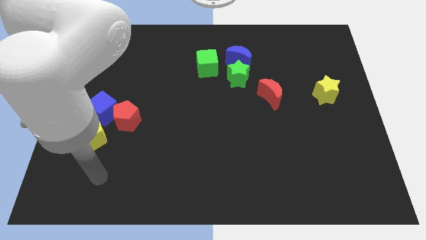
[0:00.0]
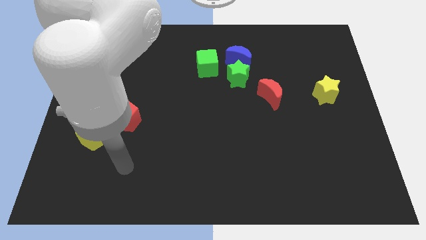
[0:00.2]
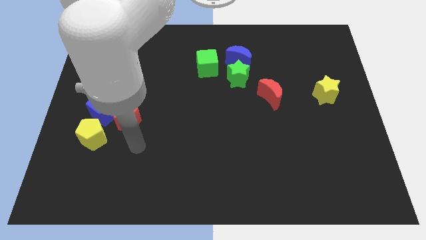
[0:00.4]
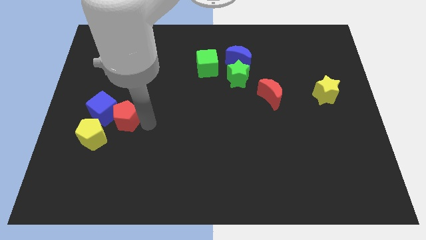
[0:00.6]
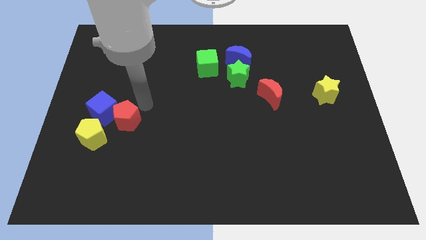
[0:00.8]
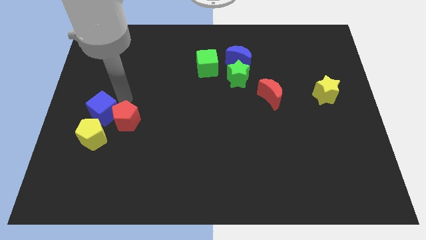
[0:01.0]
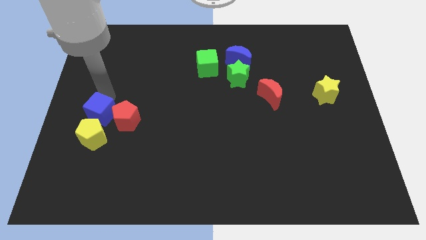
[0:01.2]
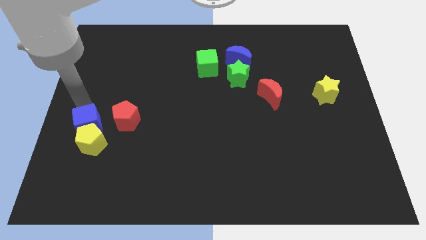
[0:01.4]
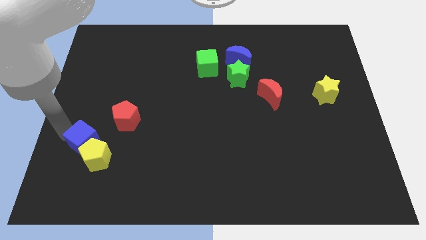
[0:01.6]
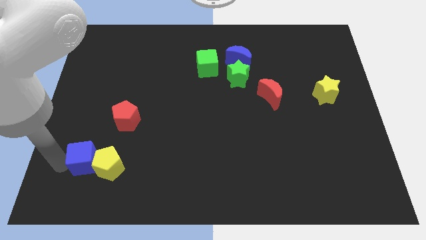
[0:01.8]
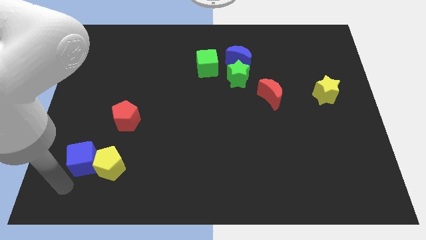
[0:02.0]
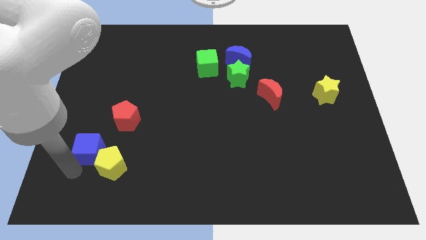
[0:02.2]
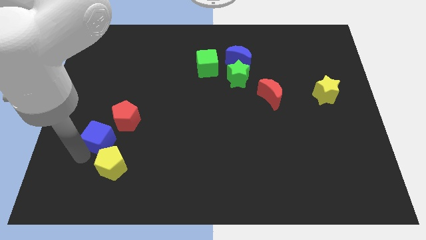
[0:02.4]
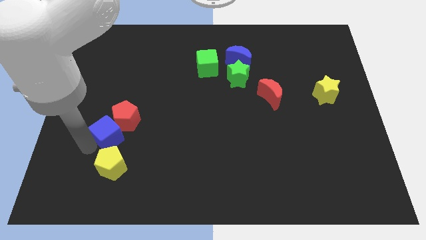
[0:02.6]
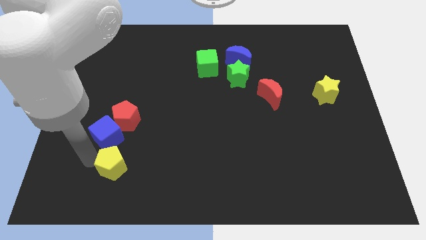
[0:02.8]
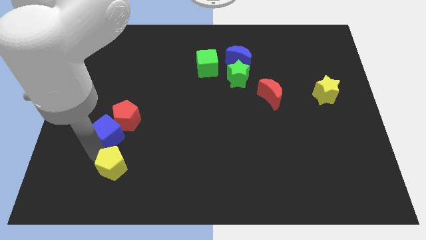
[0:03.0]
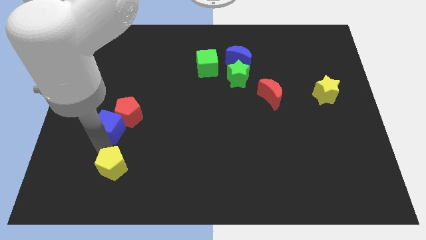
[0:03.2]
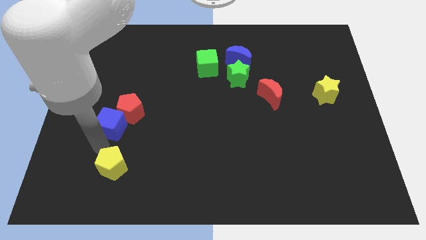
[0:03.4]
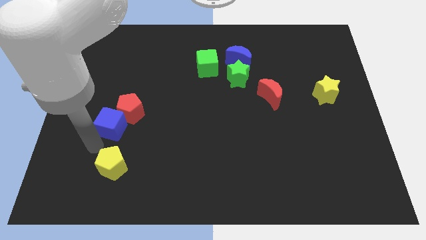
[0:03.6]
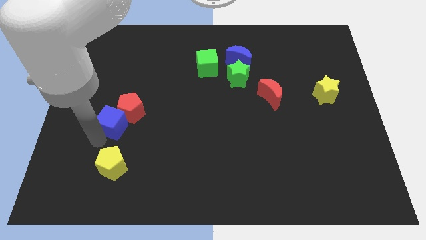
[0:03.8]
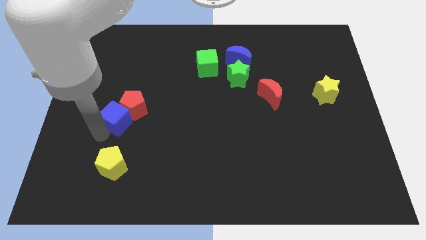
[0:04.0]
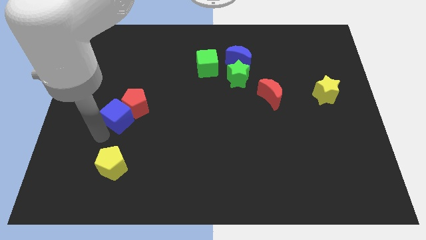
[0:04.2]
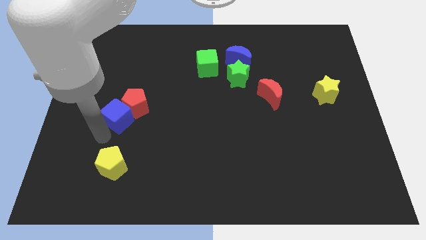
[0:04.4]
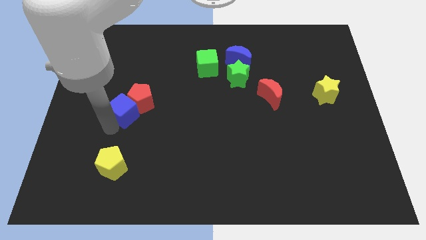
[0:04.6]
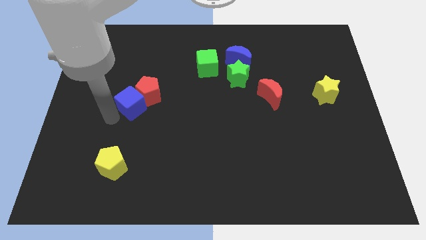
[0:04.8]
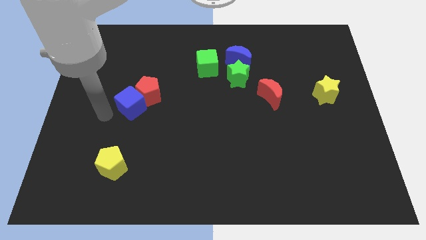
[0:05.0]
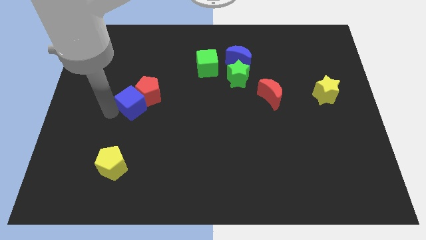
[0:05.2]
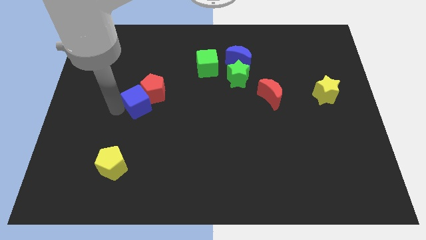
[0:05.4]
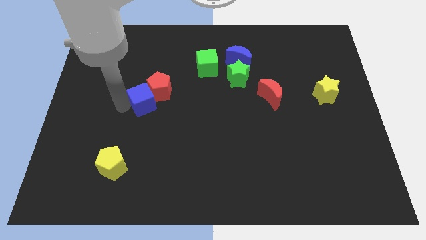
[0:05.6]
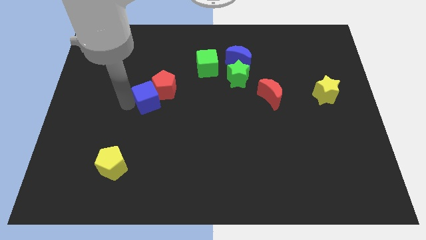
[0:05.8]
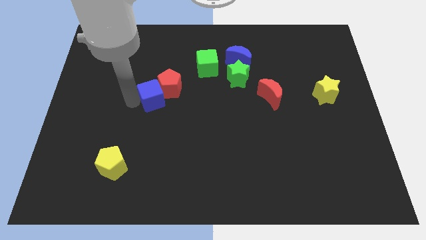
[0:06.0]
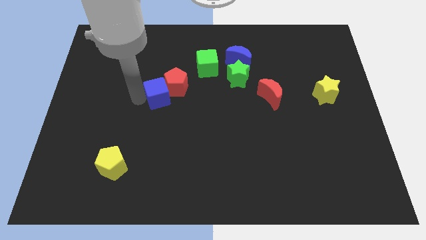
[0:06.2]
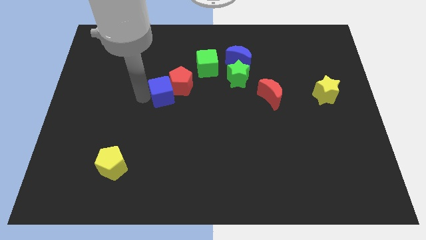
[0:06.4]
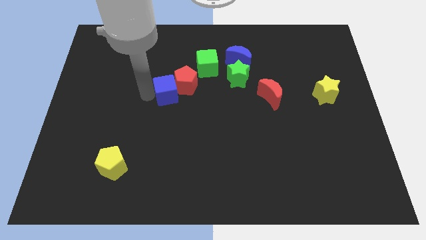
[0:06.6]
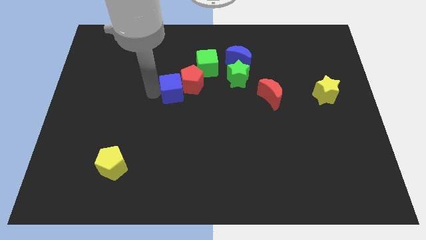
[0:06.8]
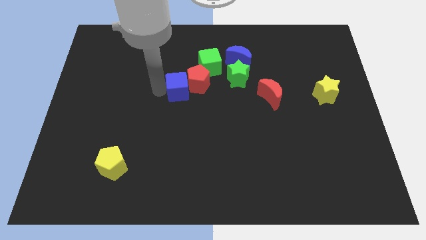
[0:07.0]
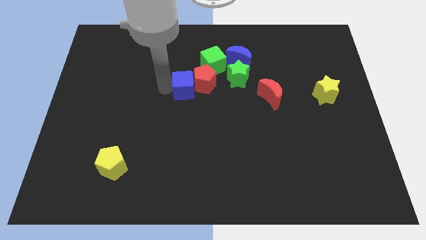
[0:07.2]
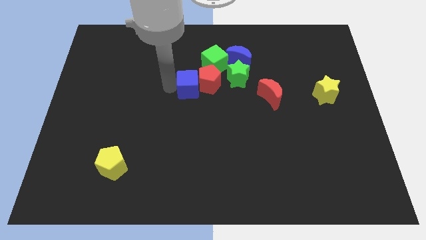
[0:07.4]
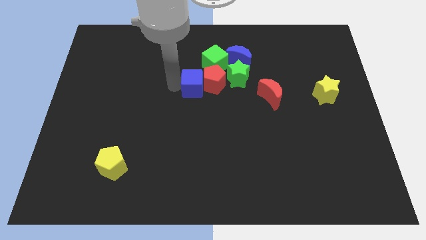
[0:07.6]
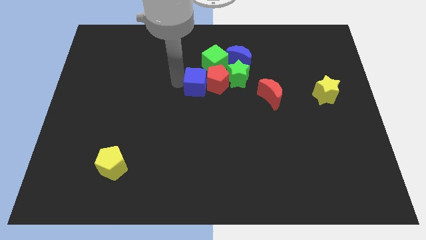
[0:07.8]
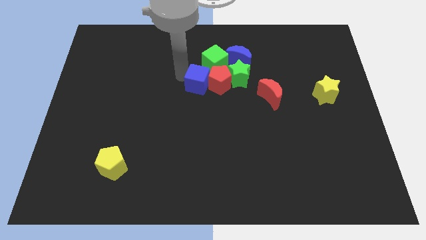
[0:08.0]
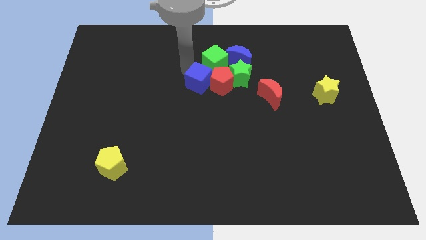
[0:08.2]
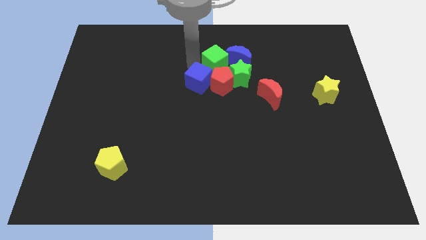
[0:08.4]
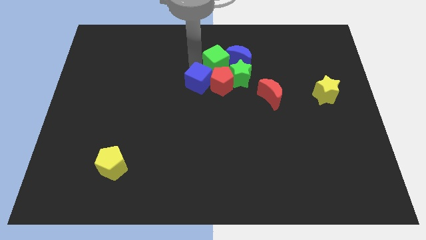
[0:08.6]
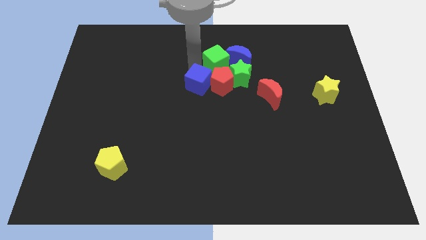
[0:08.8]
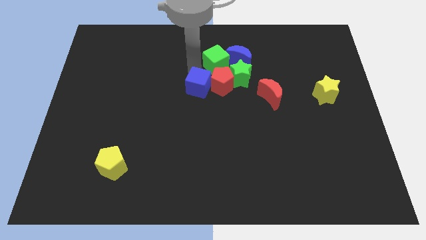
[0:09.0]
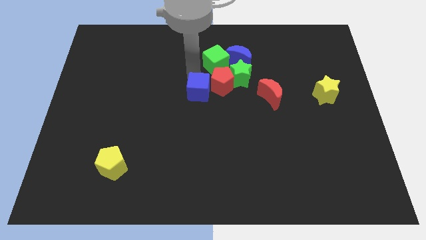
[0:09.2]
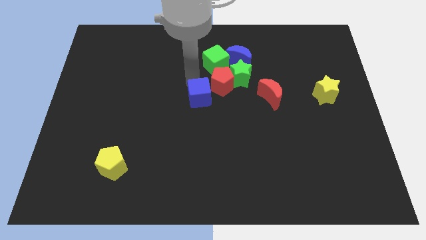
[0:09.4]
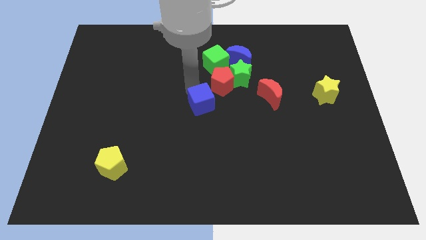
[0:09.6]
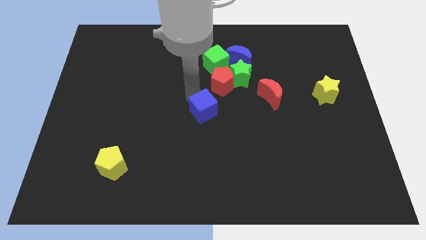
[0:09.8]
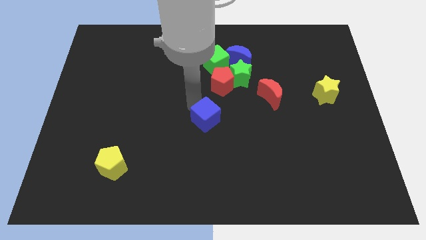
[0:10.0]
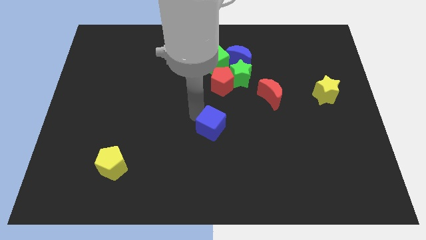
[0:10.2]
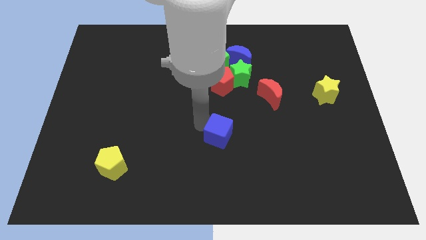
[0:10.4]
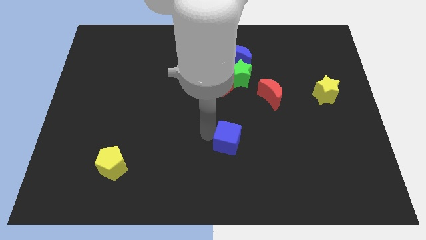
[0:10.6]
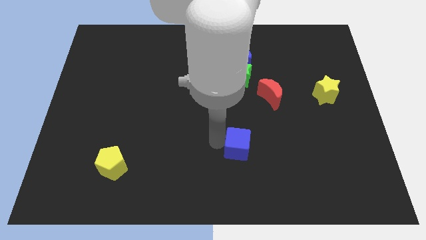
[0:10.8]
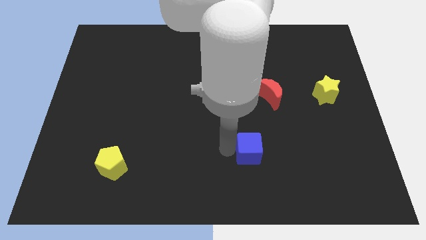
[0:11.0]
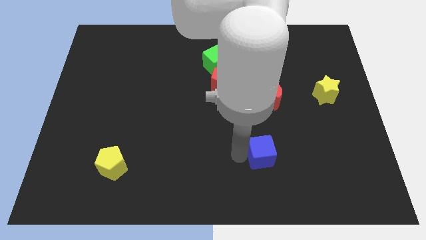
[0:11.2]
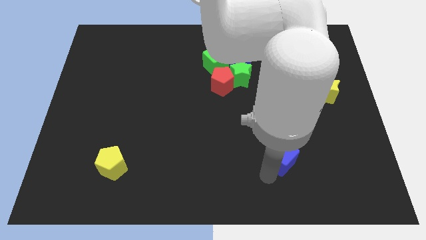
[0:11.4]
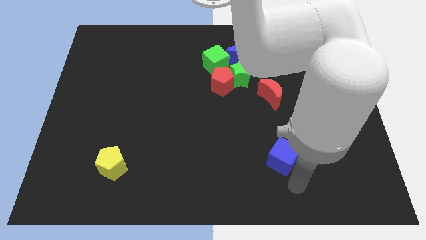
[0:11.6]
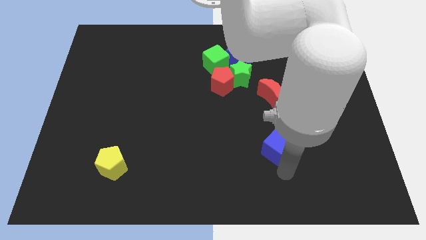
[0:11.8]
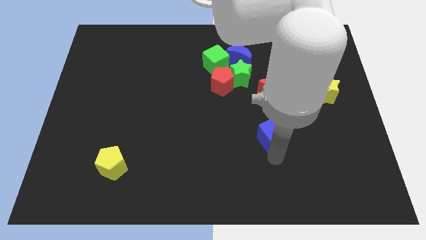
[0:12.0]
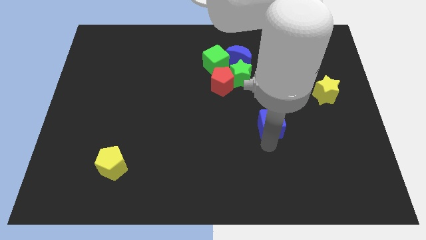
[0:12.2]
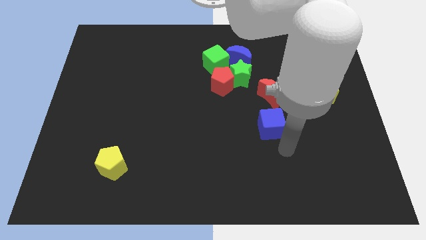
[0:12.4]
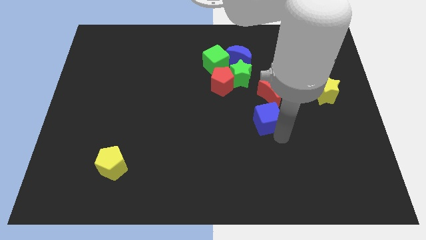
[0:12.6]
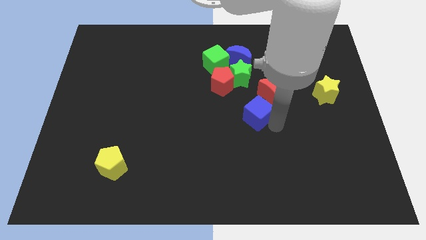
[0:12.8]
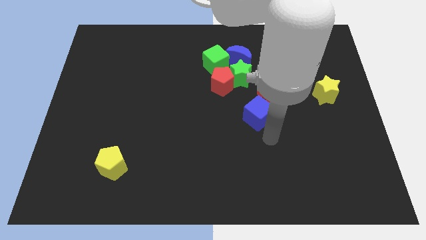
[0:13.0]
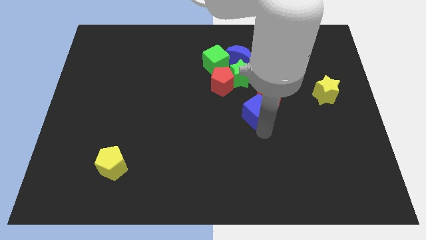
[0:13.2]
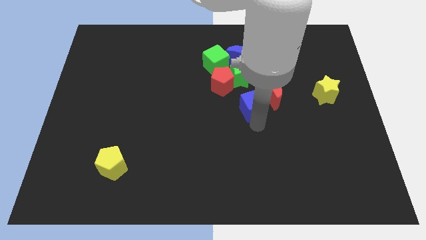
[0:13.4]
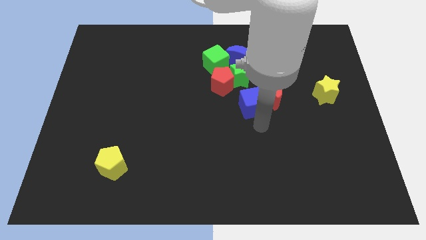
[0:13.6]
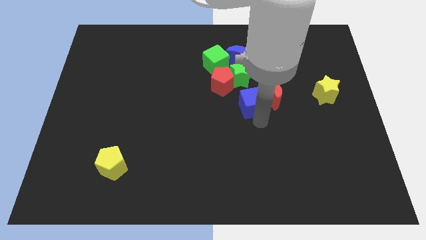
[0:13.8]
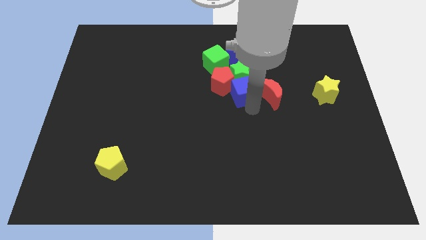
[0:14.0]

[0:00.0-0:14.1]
put the blue cube to the bottom right side of the green cube
